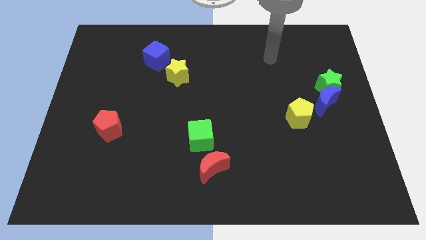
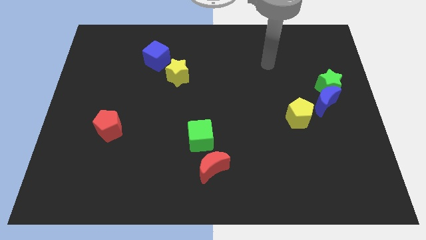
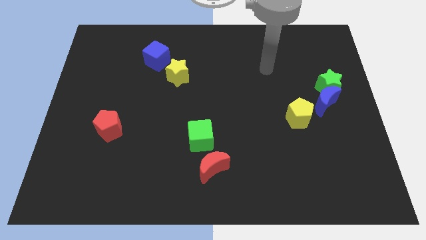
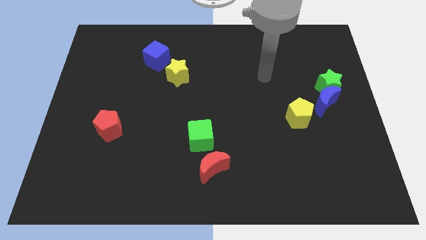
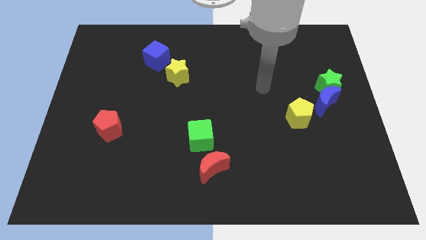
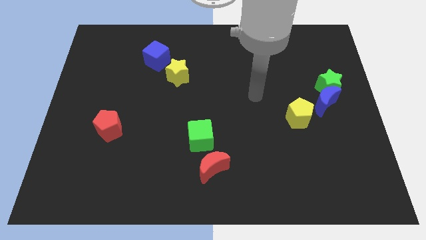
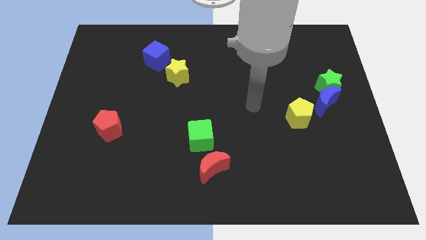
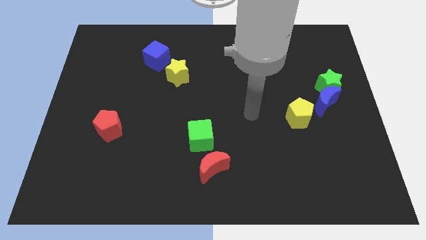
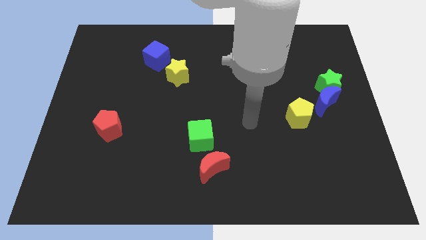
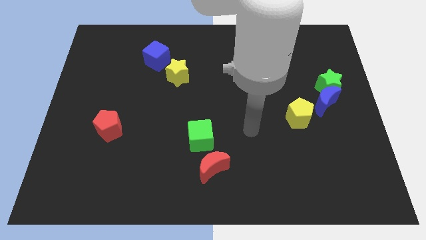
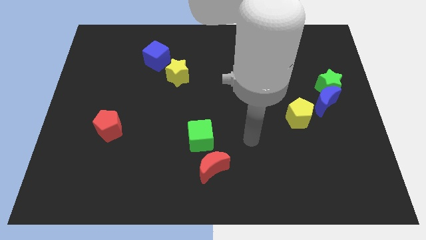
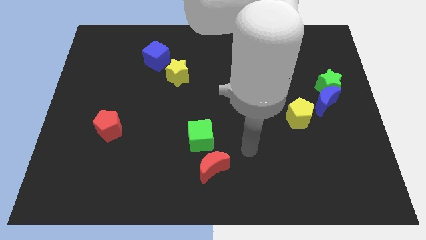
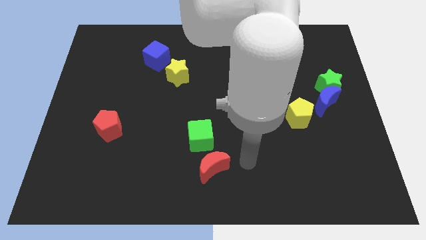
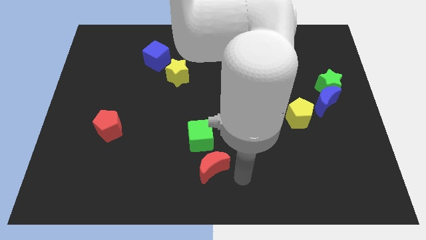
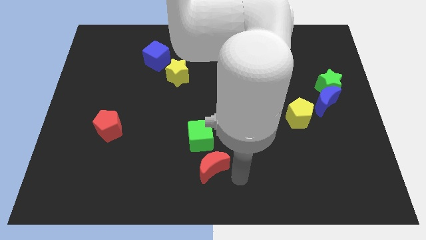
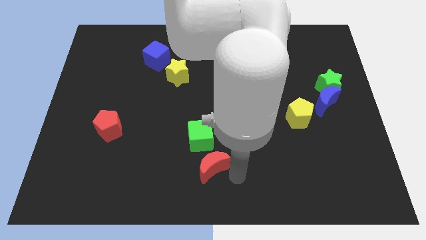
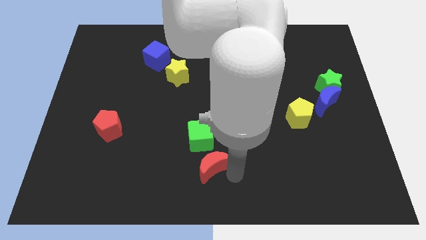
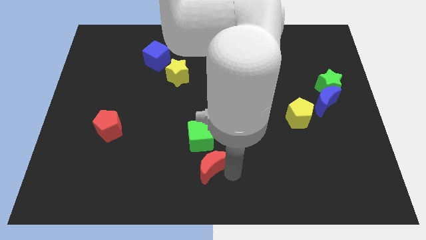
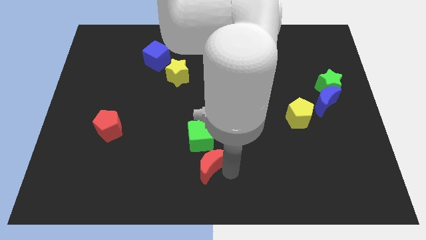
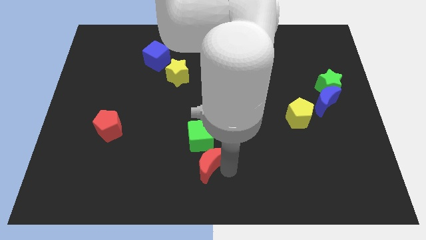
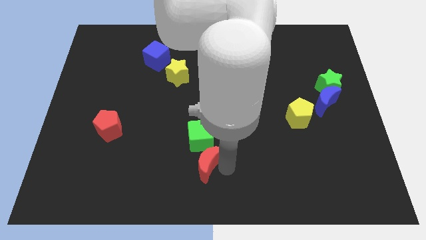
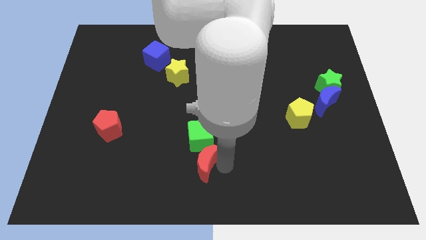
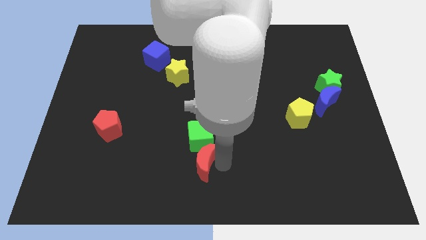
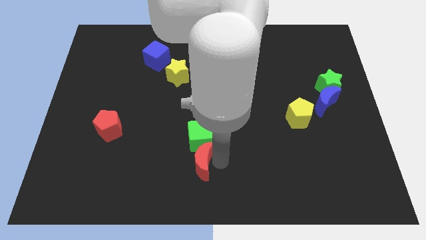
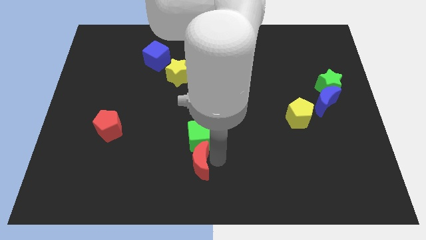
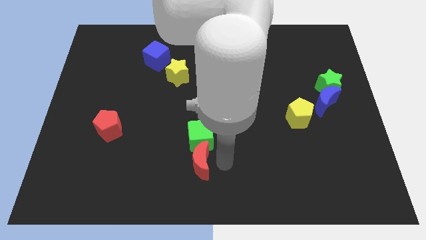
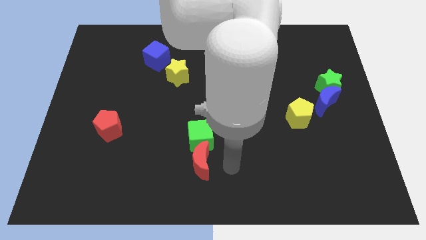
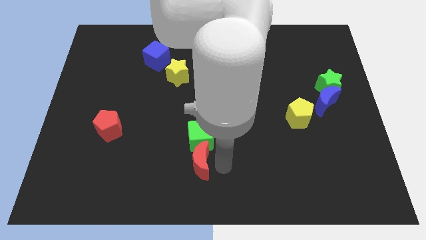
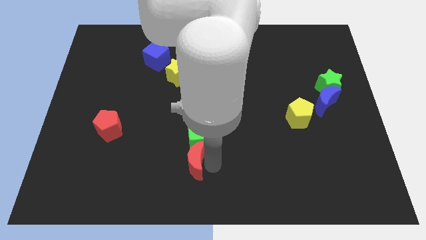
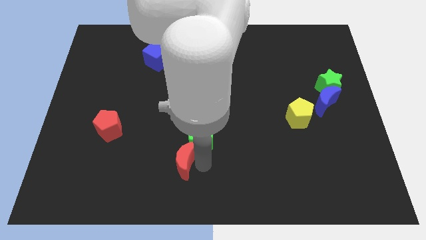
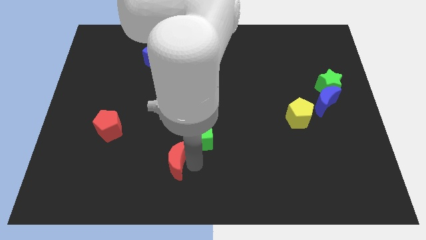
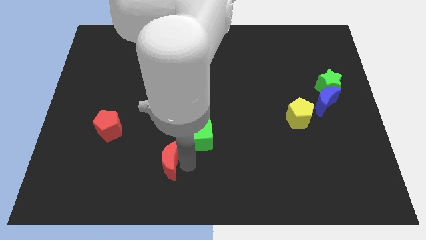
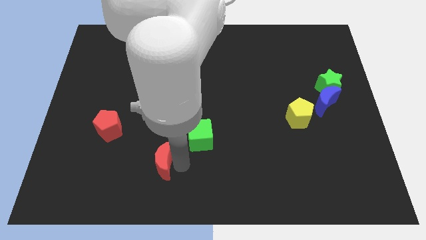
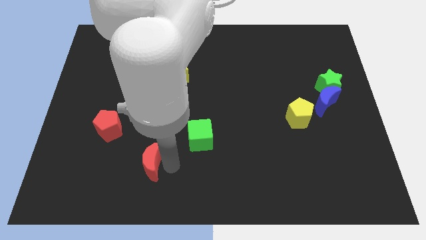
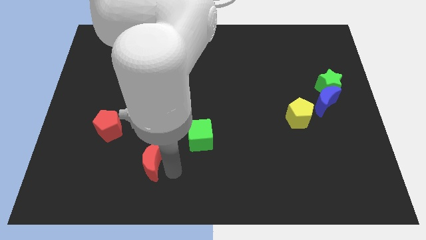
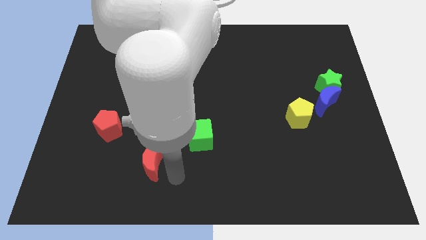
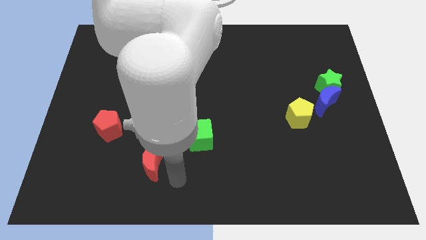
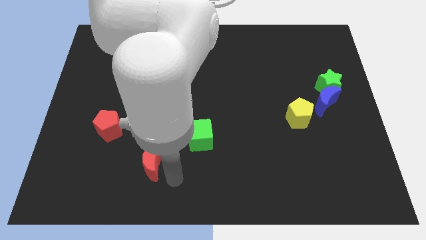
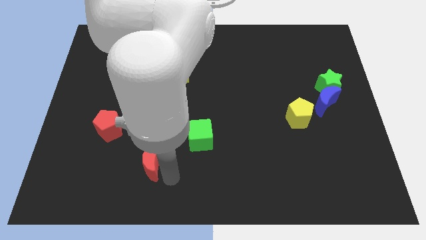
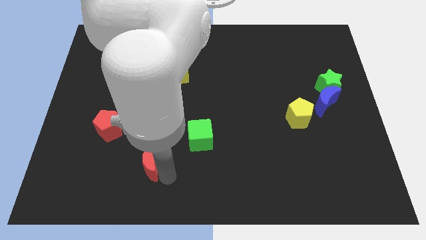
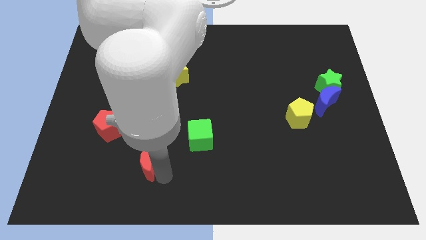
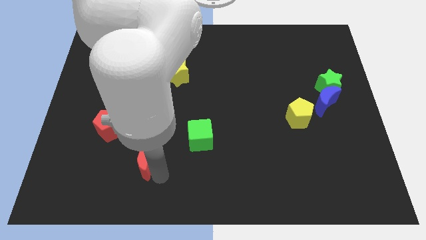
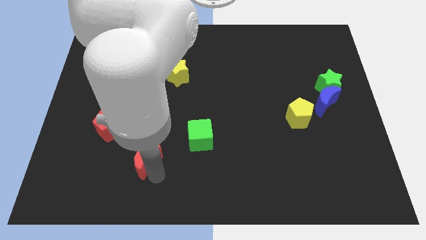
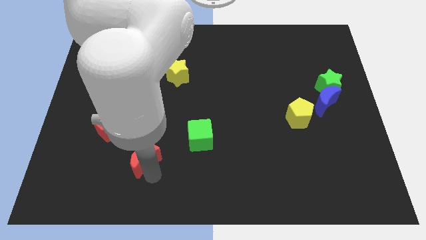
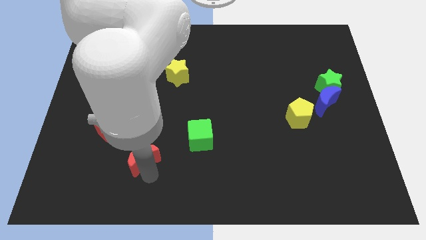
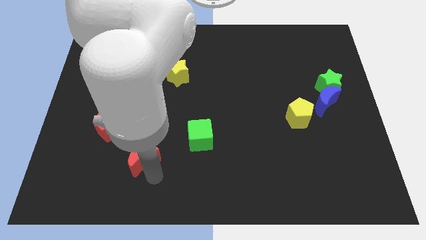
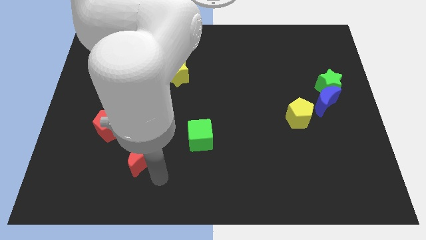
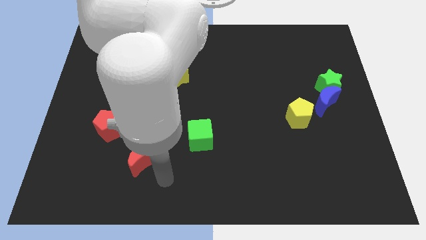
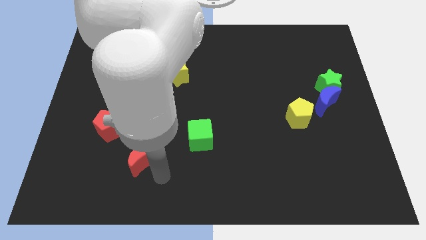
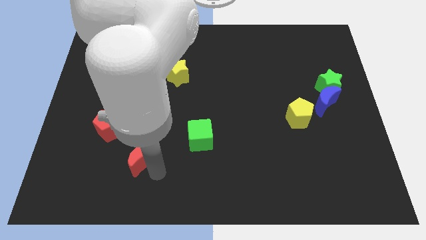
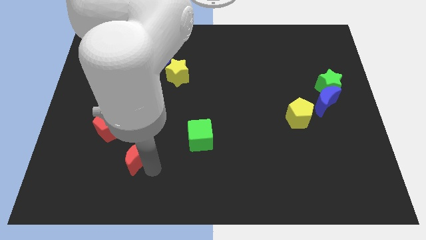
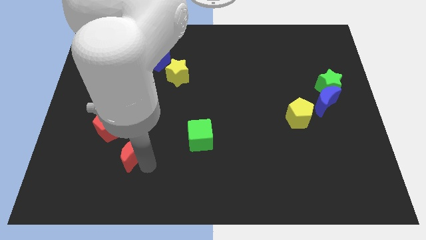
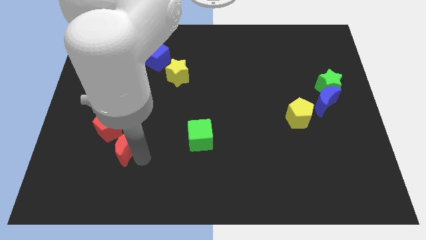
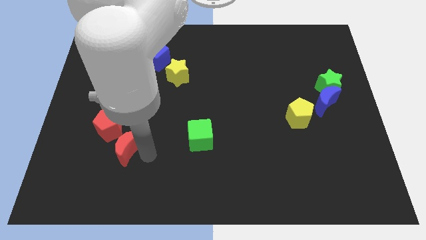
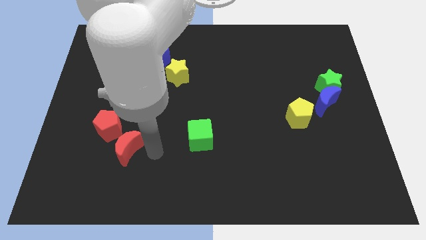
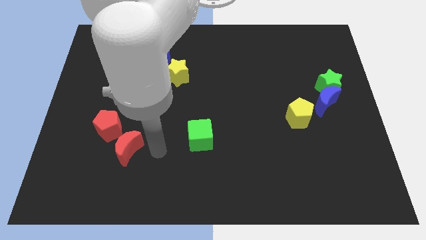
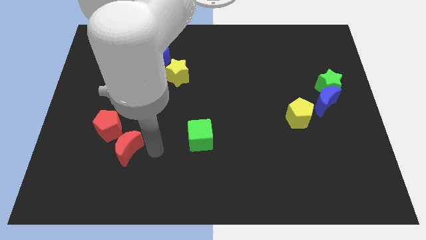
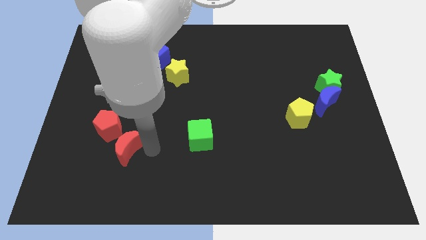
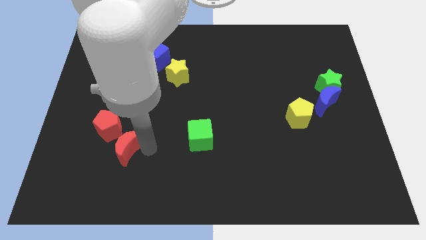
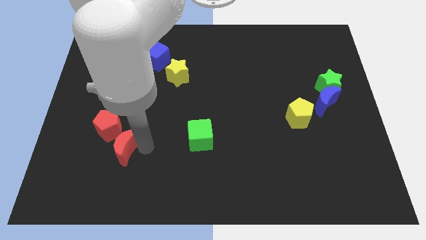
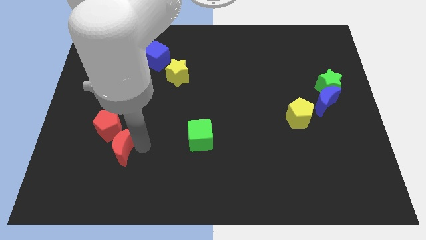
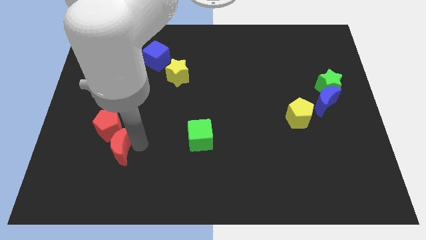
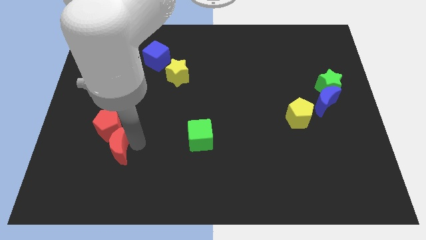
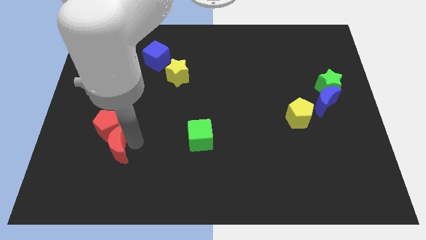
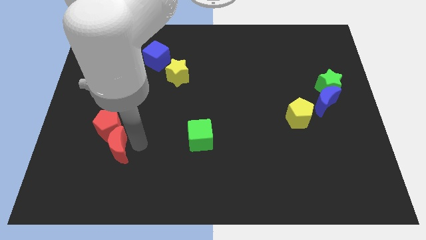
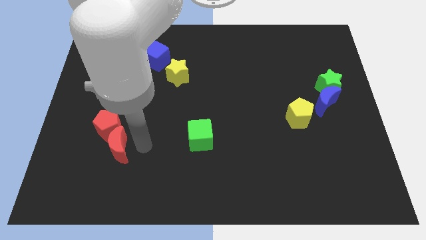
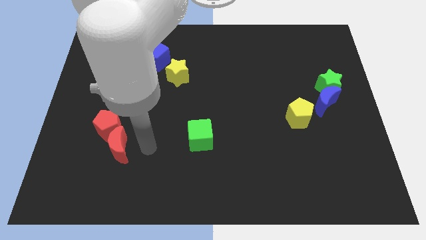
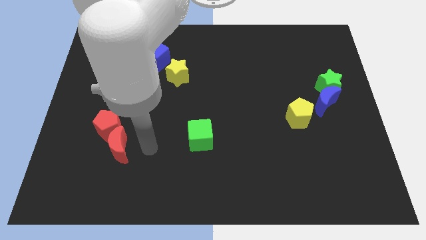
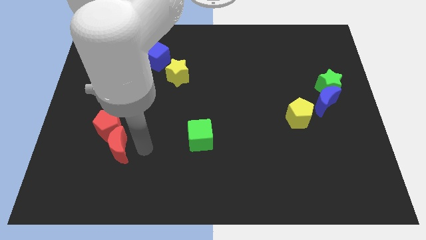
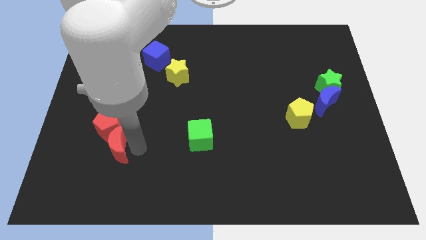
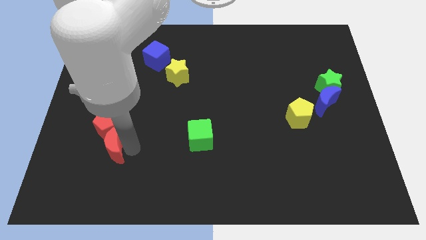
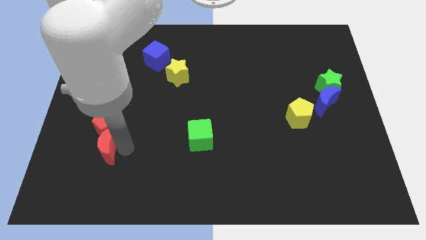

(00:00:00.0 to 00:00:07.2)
move the red moon diagonally down and to the left of the red pentagon
